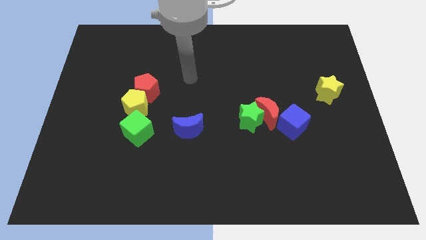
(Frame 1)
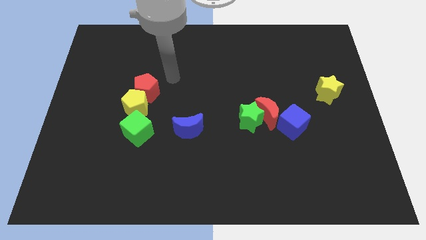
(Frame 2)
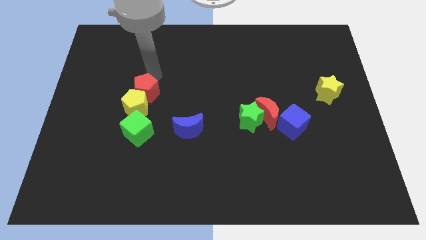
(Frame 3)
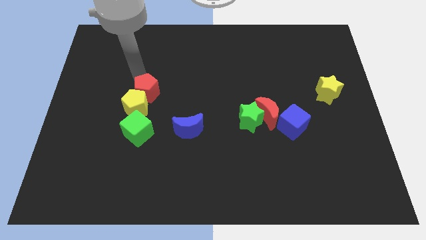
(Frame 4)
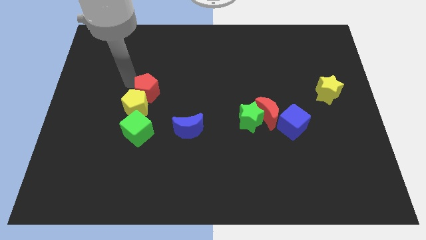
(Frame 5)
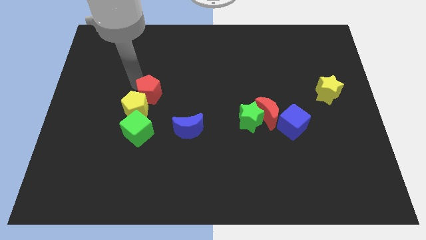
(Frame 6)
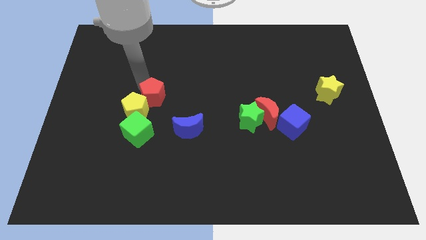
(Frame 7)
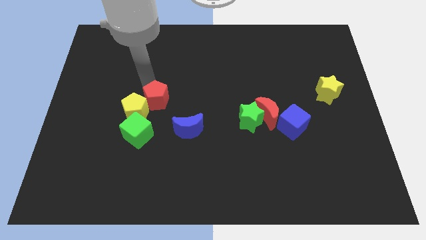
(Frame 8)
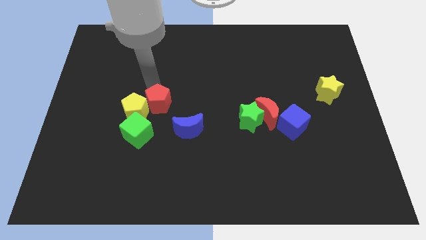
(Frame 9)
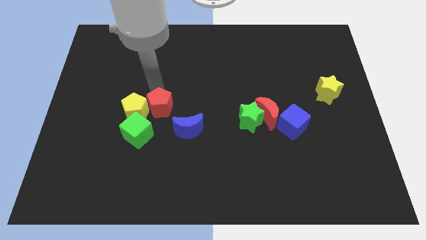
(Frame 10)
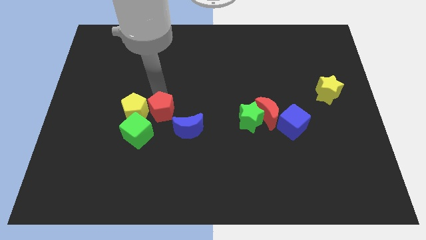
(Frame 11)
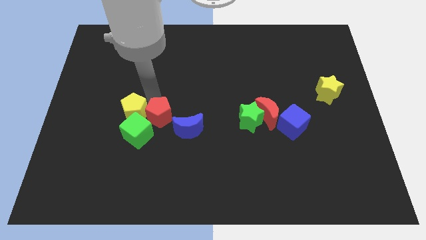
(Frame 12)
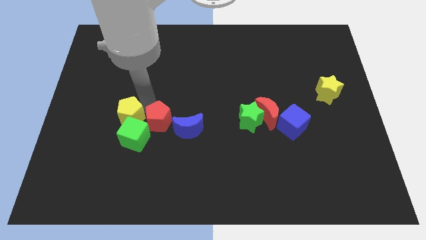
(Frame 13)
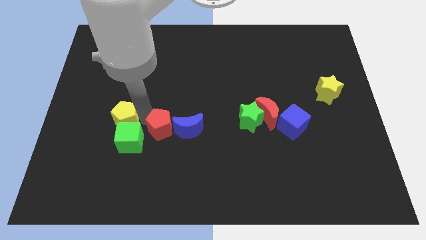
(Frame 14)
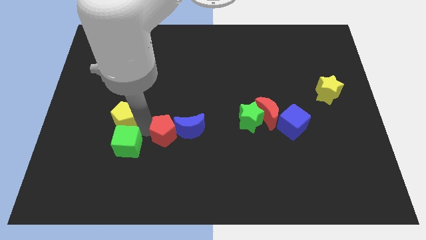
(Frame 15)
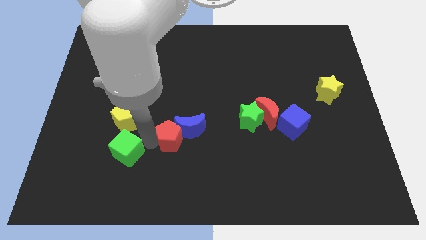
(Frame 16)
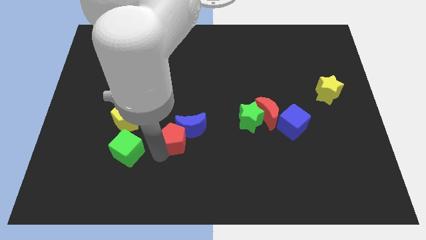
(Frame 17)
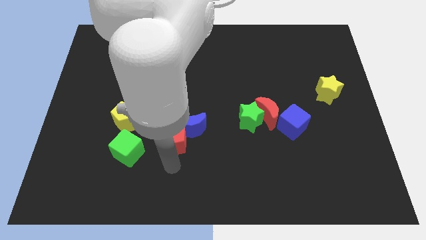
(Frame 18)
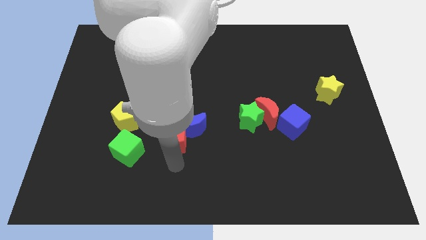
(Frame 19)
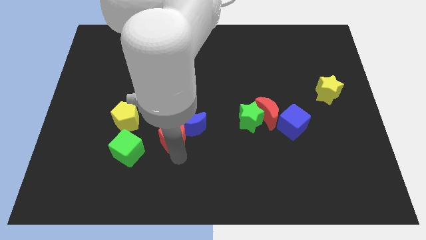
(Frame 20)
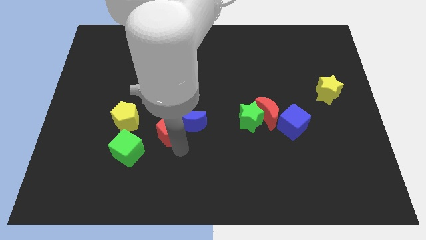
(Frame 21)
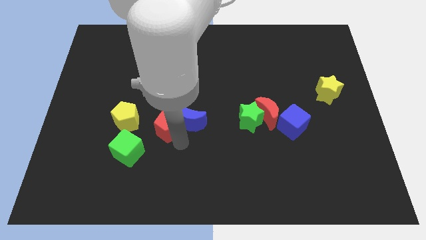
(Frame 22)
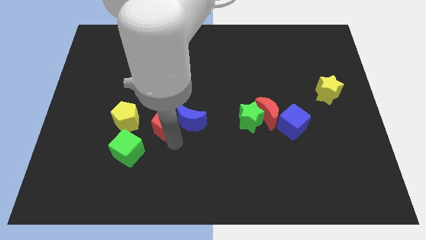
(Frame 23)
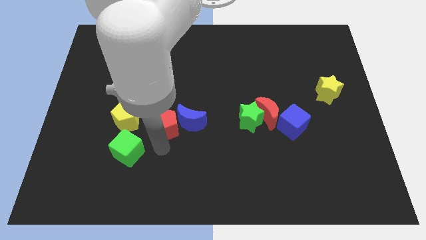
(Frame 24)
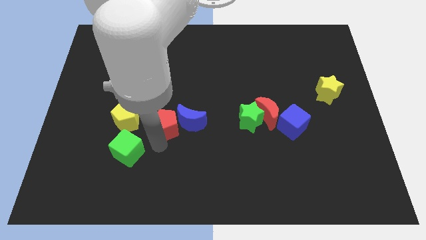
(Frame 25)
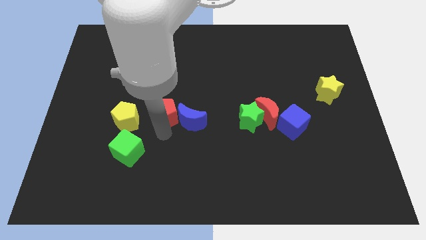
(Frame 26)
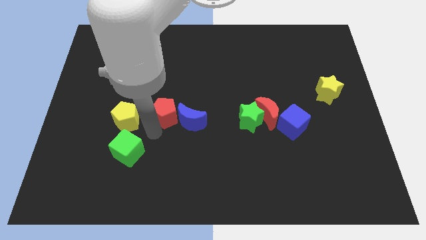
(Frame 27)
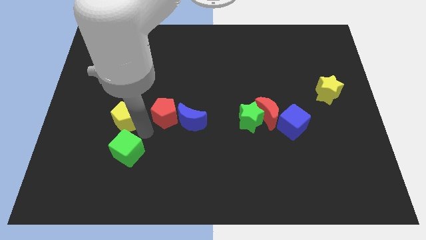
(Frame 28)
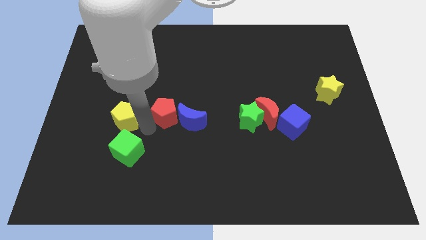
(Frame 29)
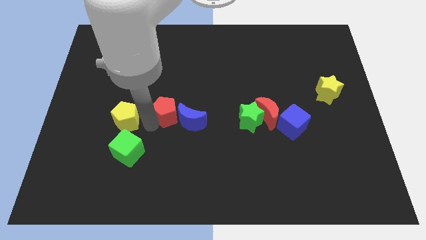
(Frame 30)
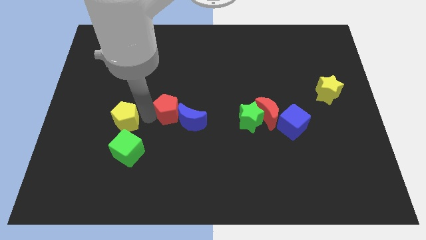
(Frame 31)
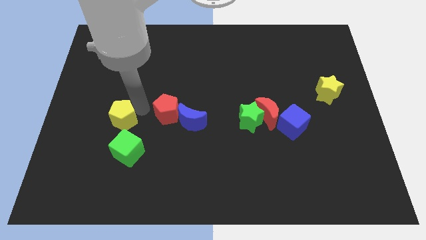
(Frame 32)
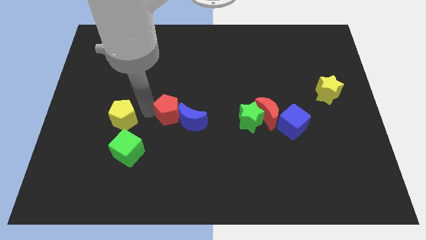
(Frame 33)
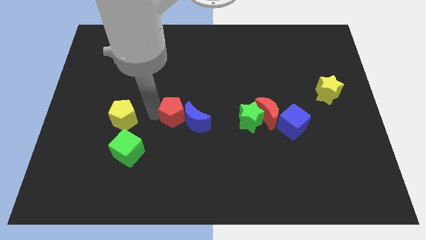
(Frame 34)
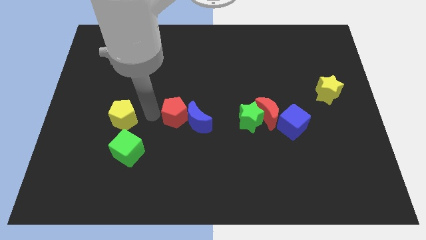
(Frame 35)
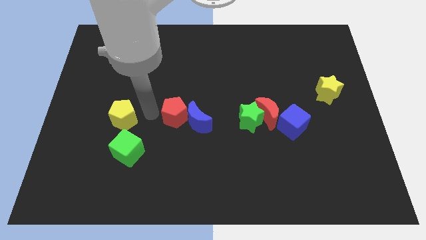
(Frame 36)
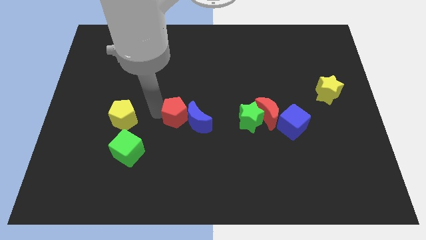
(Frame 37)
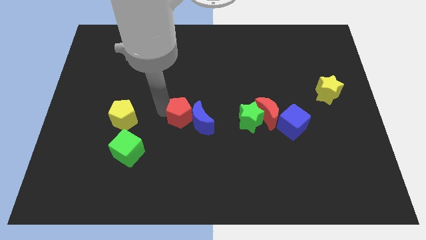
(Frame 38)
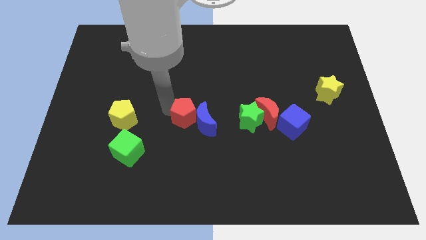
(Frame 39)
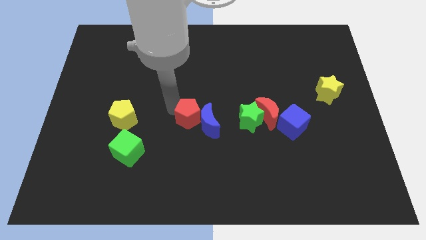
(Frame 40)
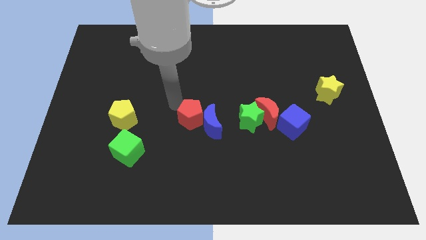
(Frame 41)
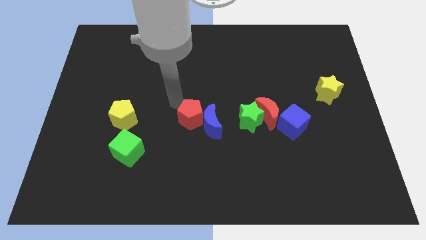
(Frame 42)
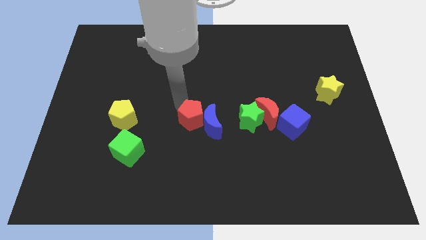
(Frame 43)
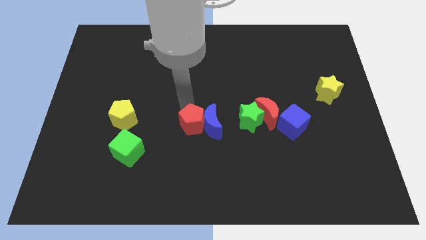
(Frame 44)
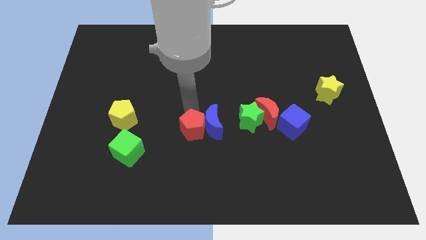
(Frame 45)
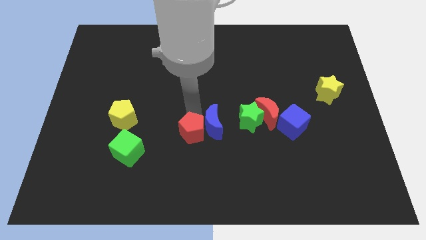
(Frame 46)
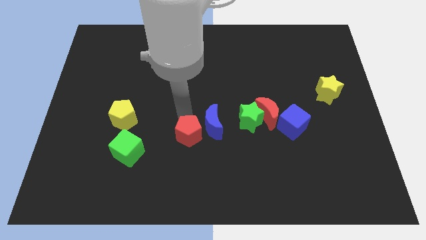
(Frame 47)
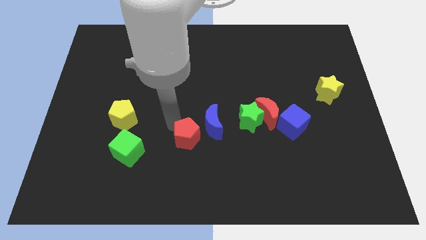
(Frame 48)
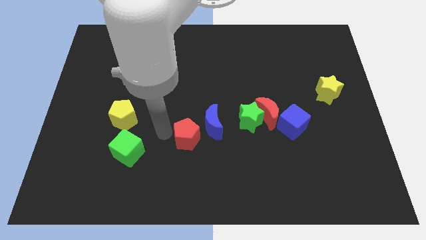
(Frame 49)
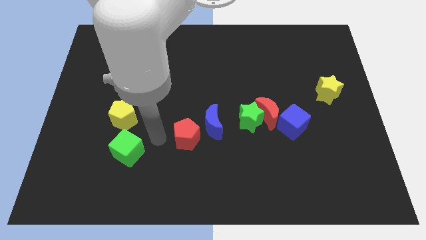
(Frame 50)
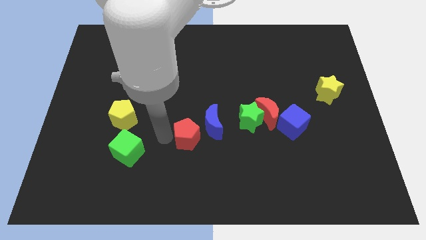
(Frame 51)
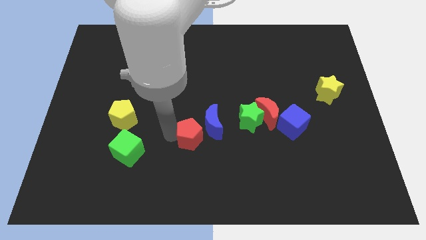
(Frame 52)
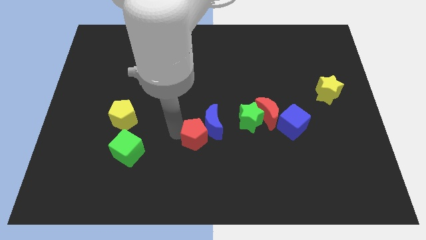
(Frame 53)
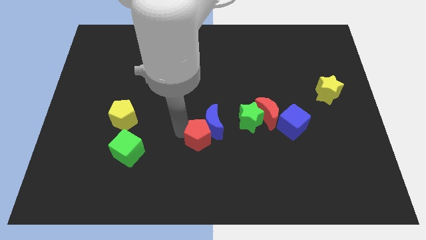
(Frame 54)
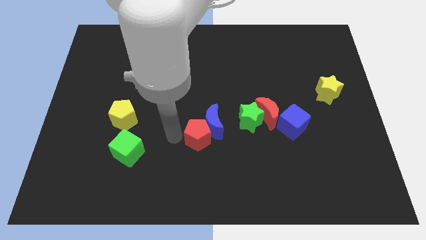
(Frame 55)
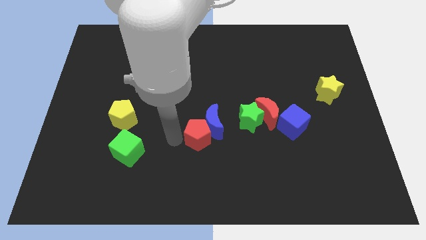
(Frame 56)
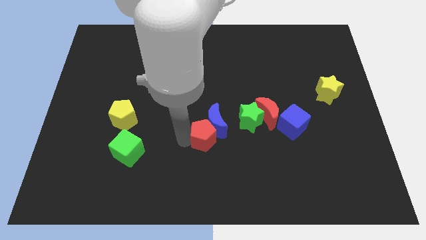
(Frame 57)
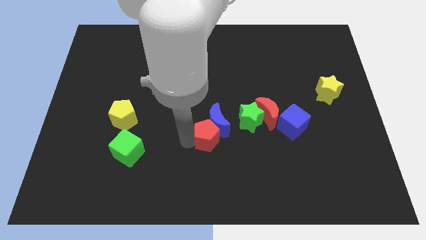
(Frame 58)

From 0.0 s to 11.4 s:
slide the red pentagon downwards and right diagonally

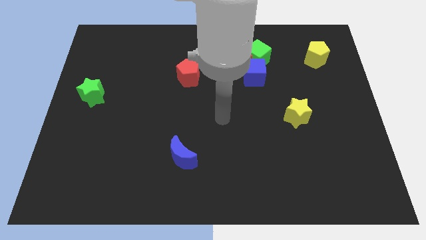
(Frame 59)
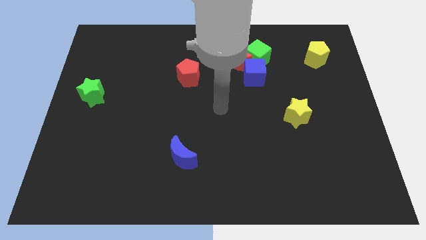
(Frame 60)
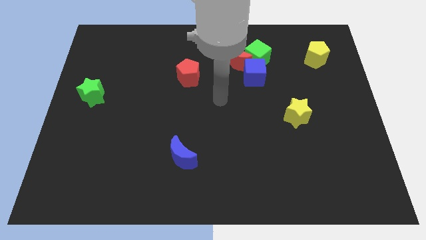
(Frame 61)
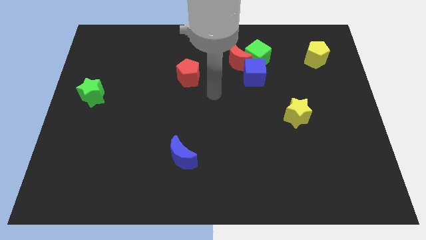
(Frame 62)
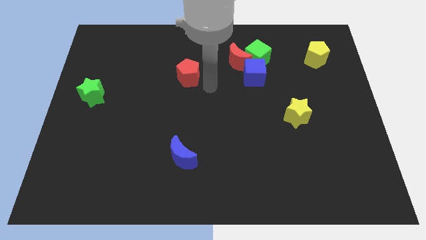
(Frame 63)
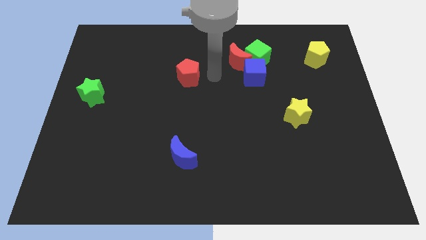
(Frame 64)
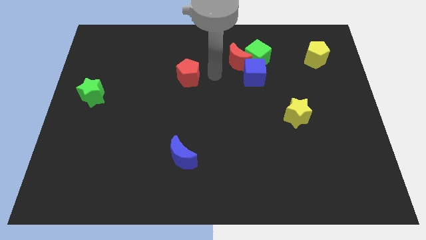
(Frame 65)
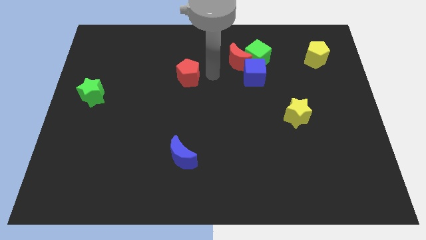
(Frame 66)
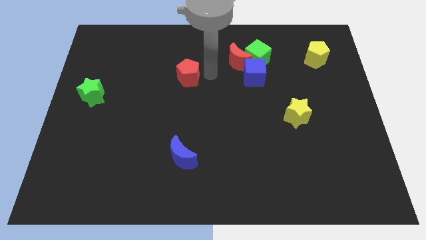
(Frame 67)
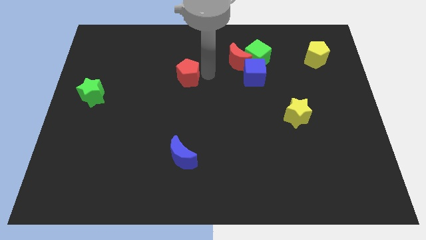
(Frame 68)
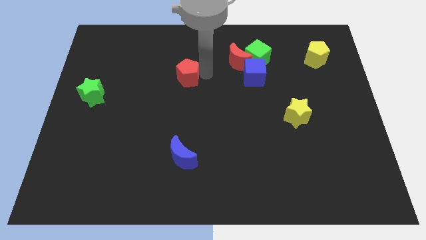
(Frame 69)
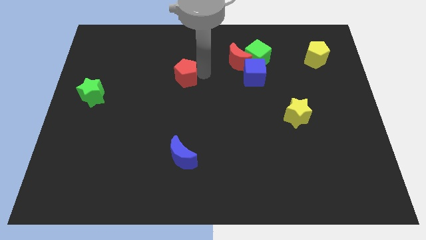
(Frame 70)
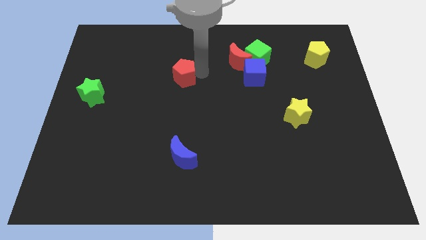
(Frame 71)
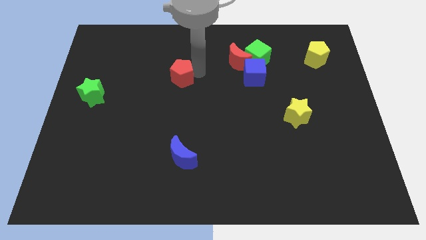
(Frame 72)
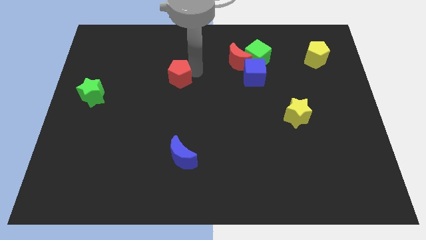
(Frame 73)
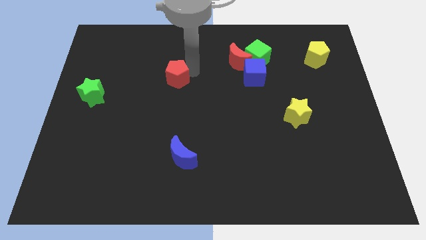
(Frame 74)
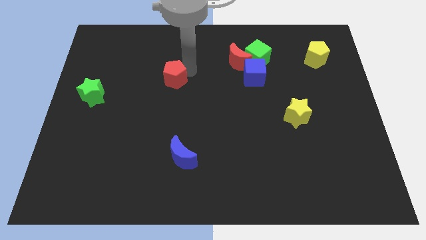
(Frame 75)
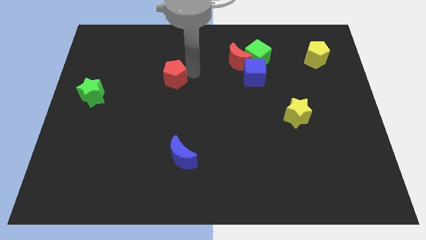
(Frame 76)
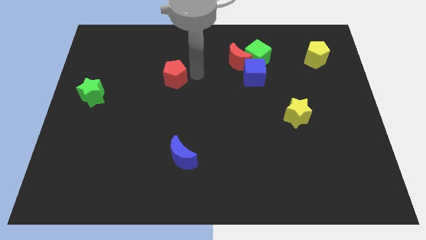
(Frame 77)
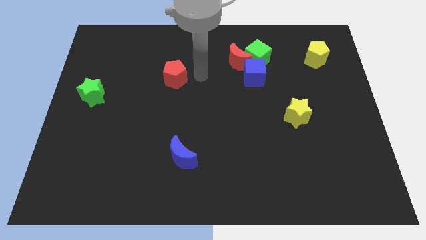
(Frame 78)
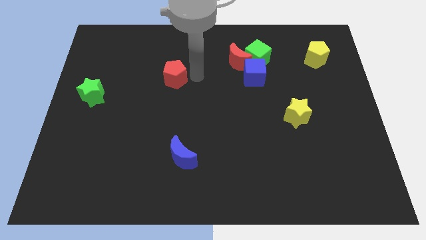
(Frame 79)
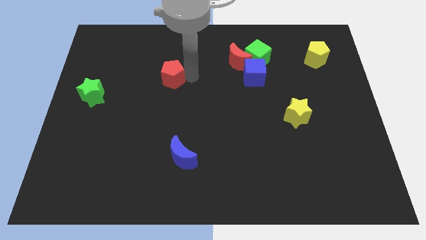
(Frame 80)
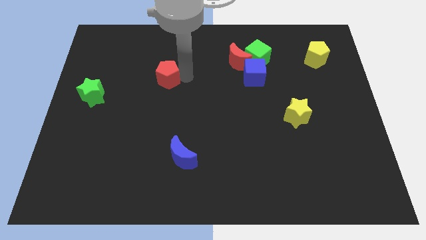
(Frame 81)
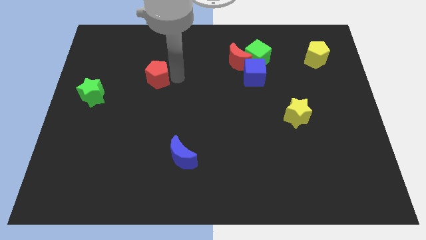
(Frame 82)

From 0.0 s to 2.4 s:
slide the red pentagon to the left somewhat
